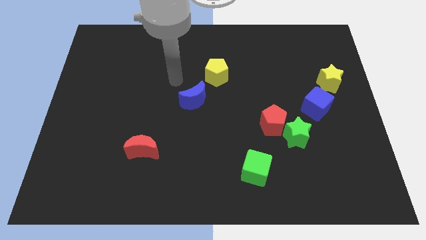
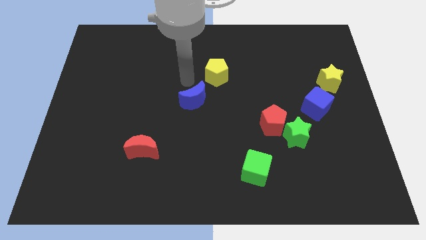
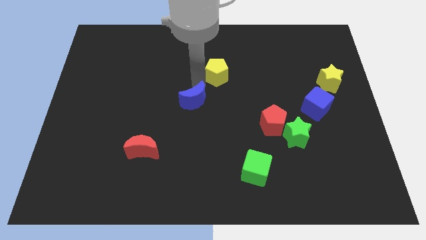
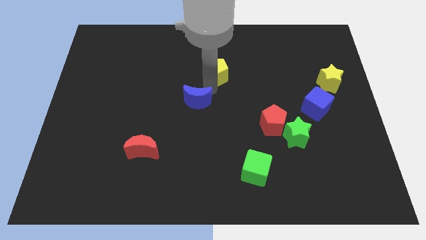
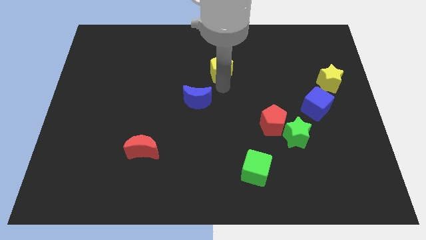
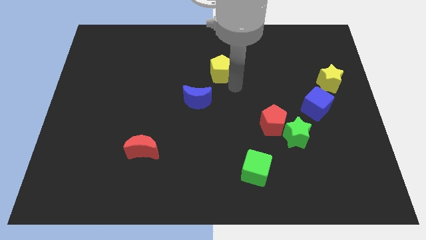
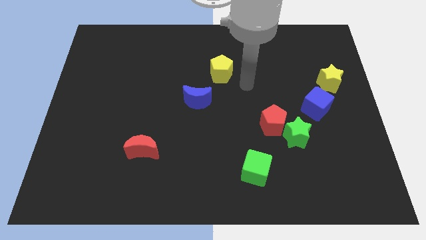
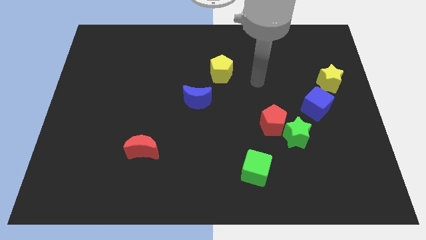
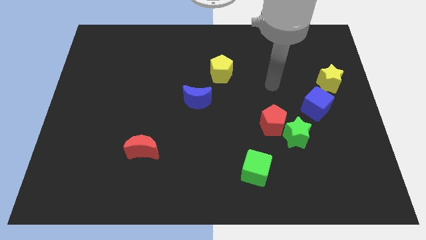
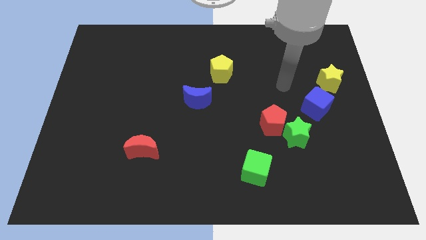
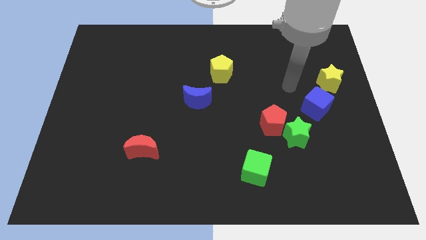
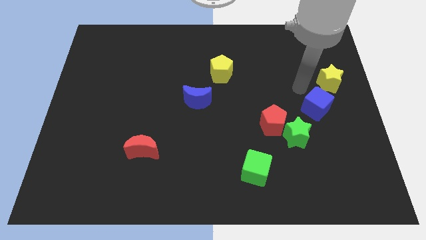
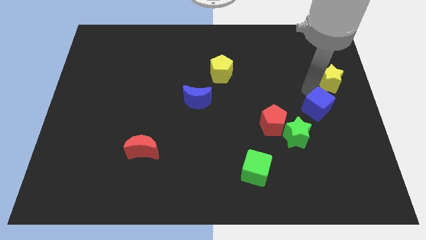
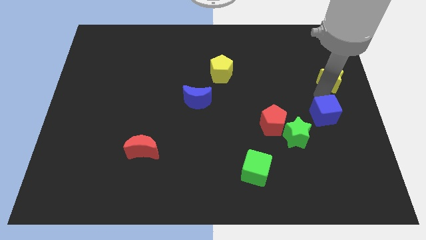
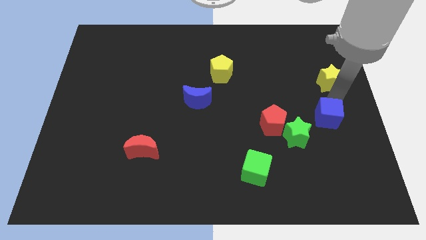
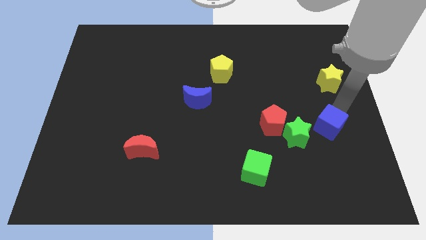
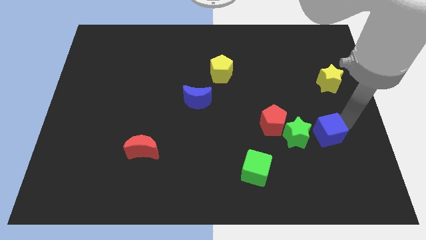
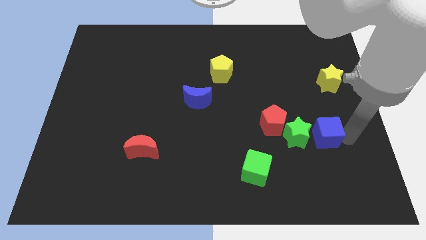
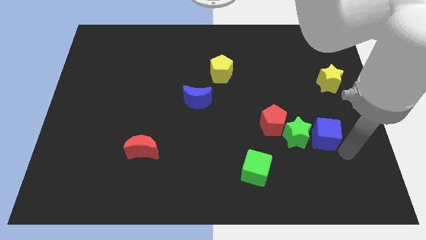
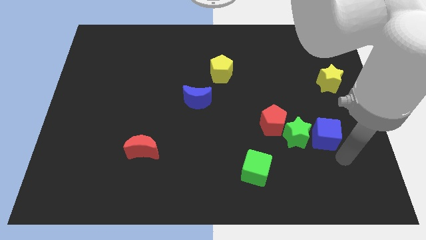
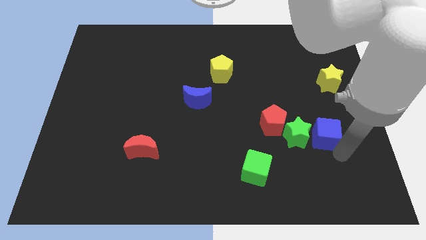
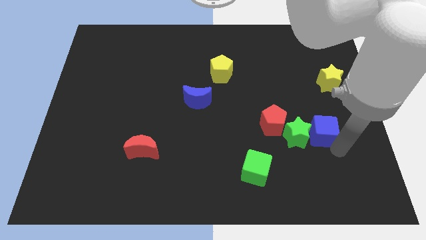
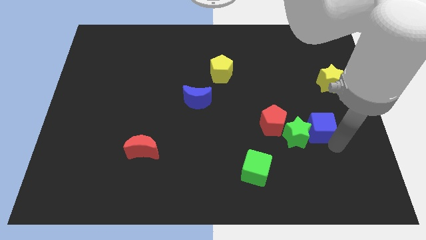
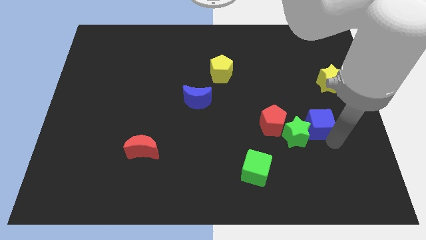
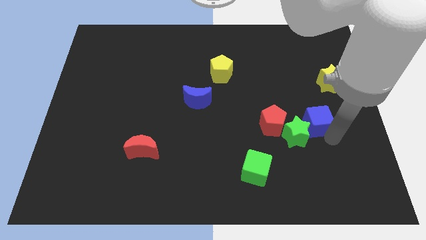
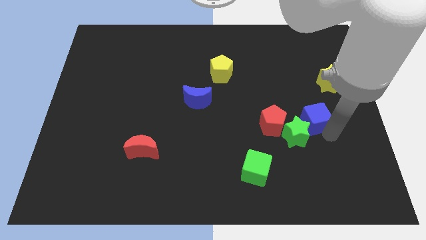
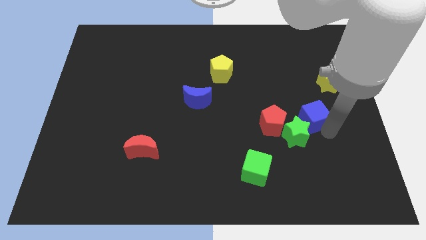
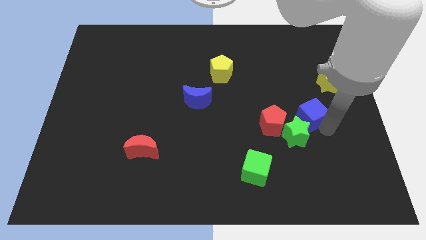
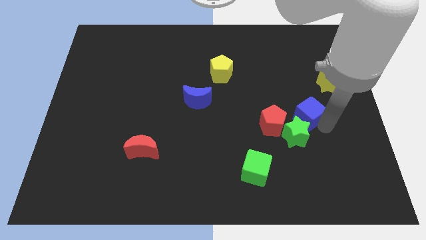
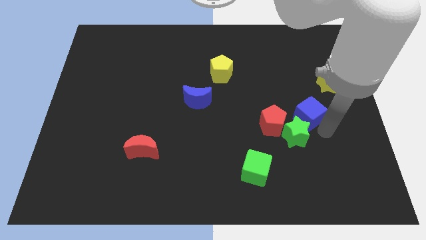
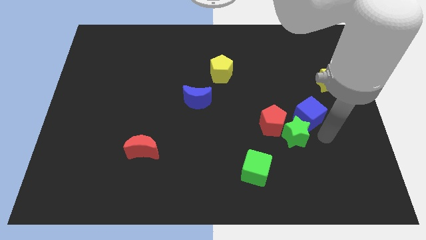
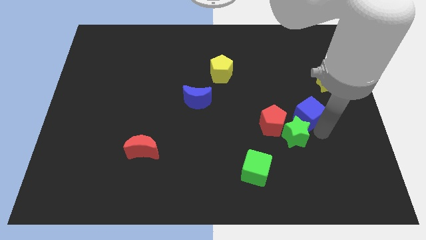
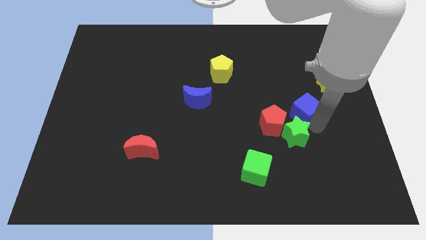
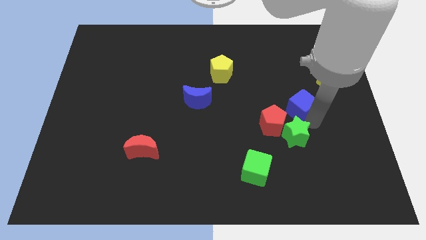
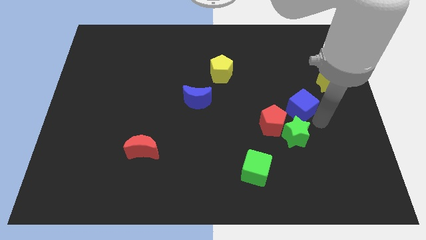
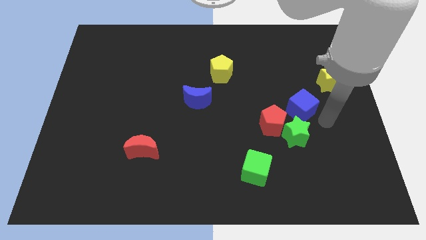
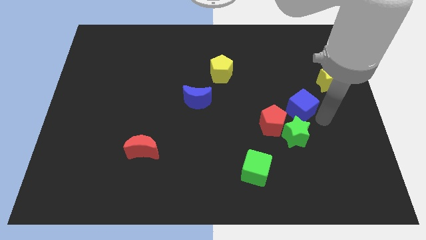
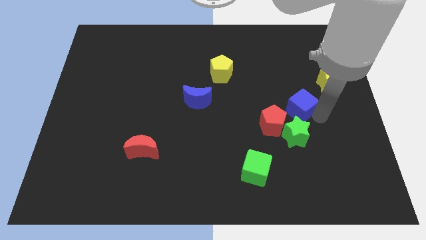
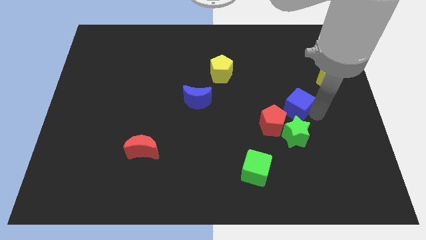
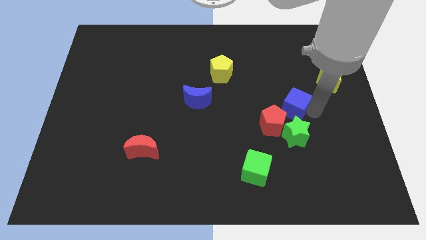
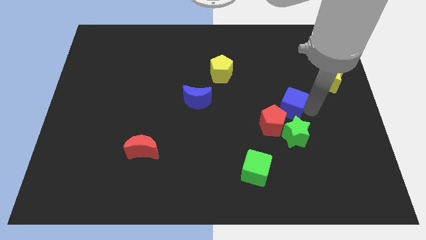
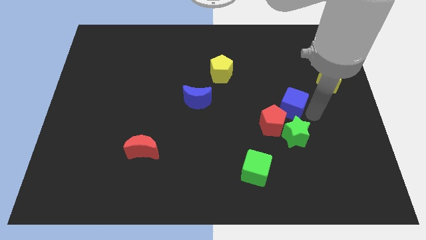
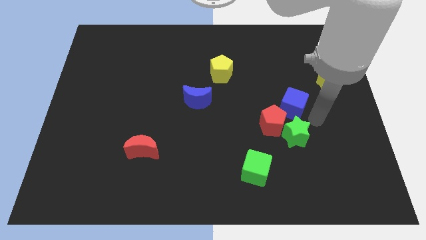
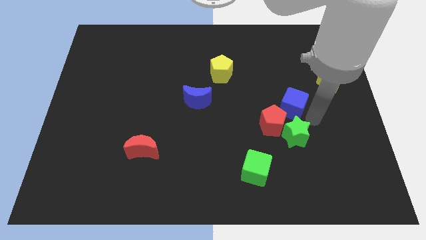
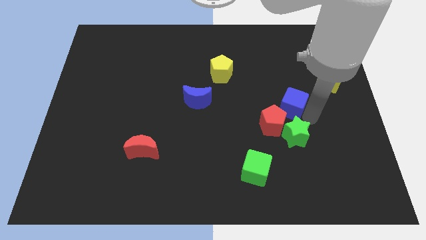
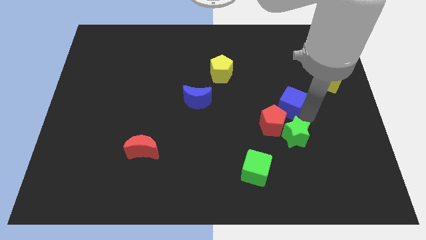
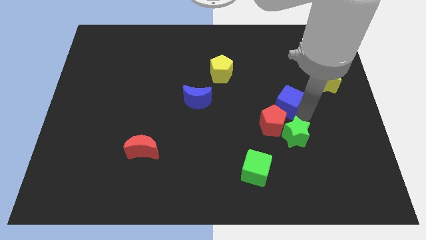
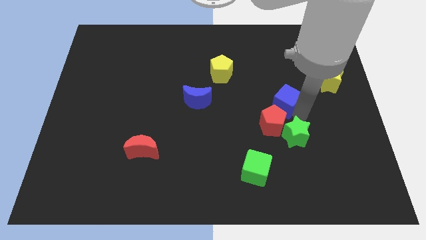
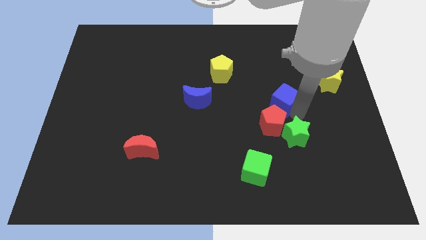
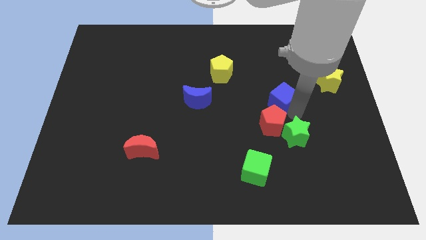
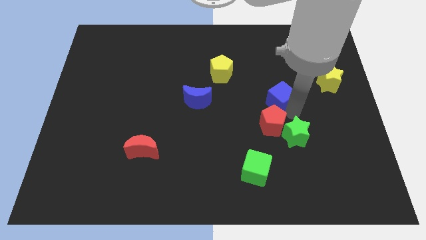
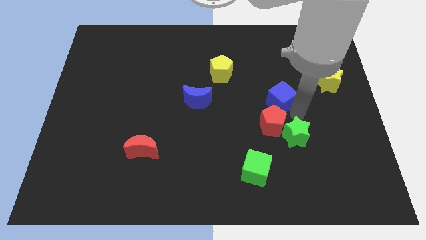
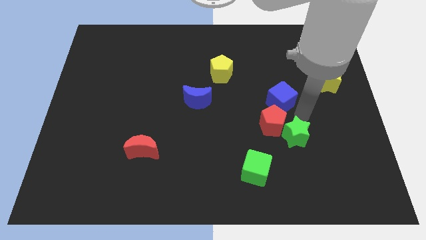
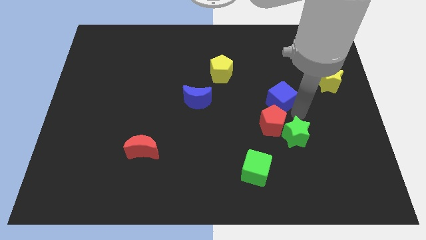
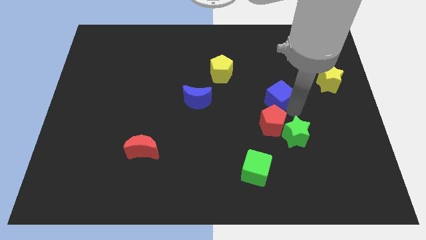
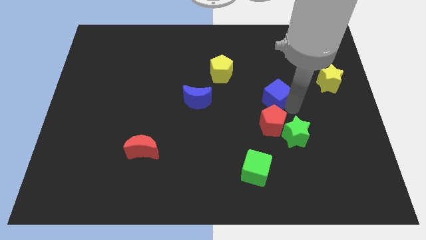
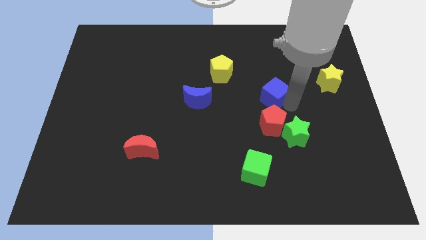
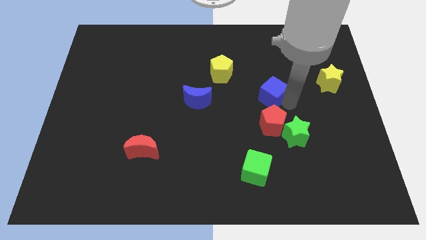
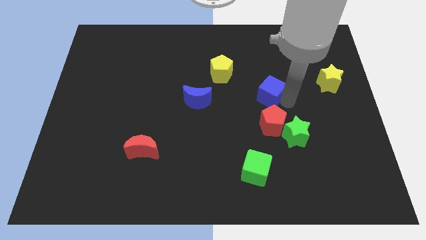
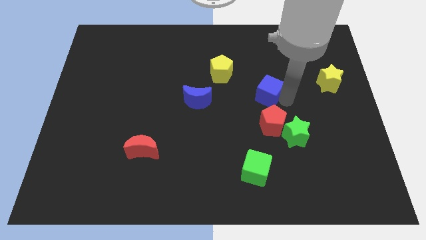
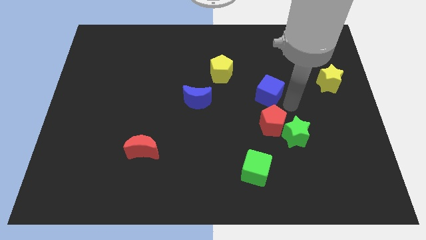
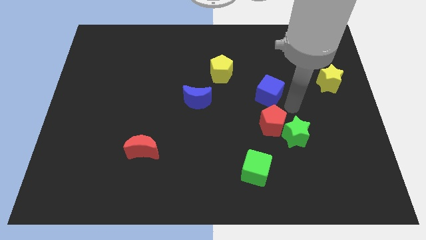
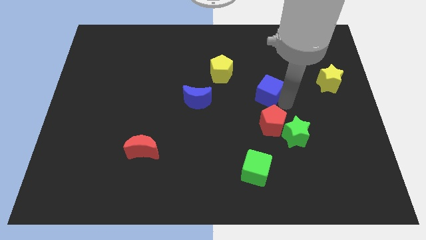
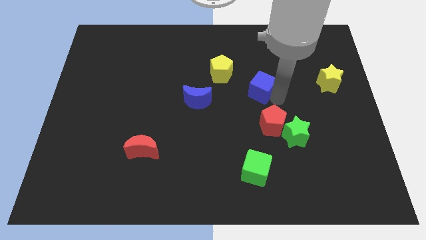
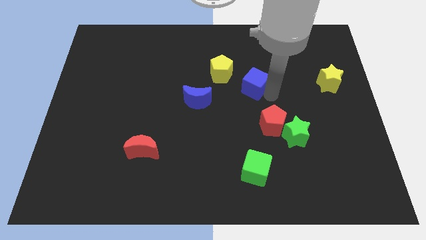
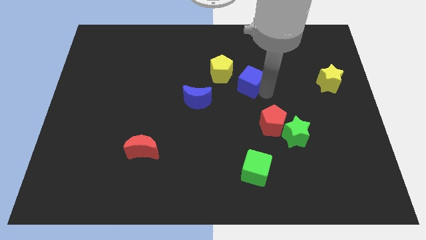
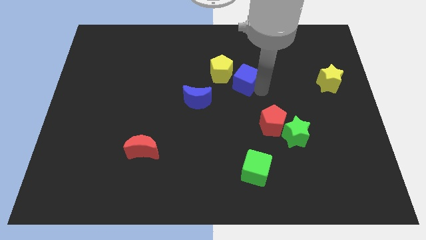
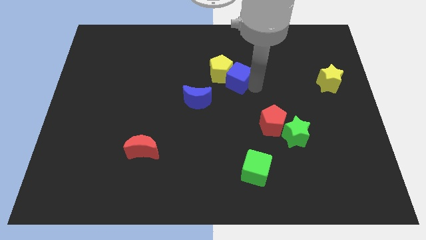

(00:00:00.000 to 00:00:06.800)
put the blue cube close to the yellow pentagon

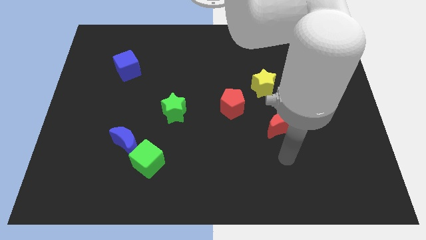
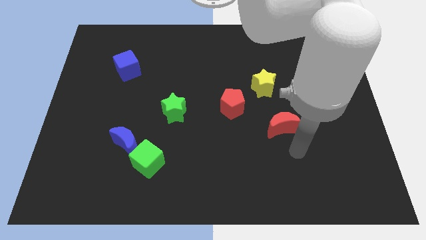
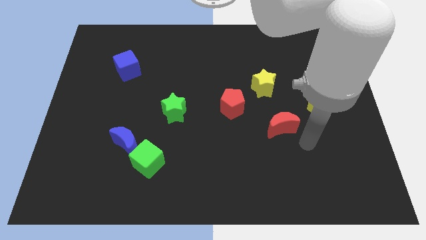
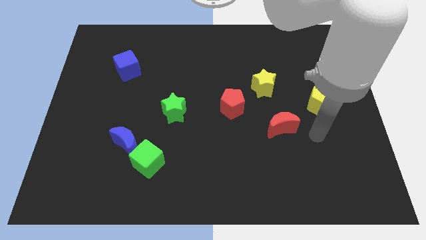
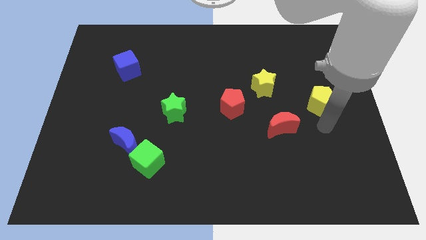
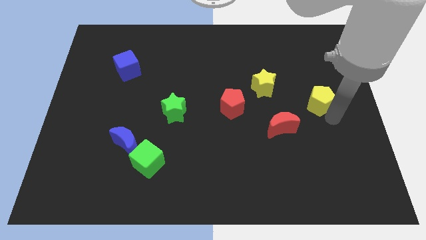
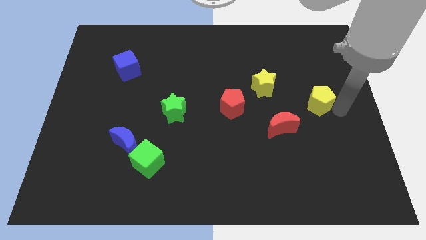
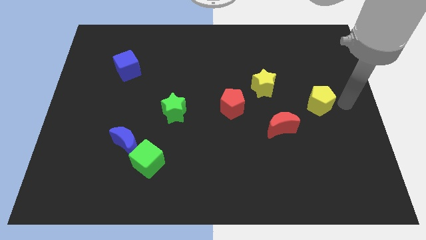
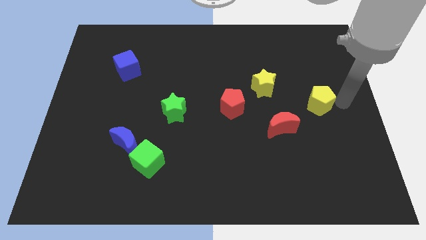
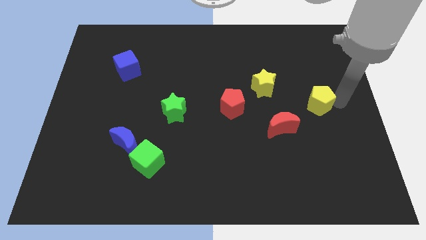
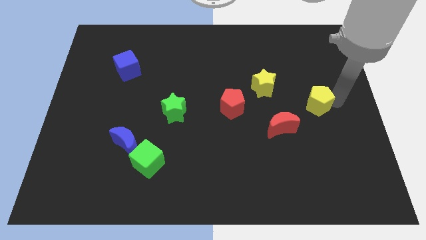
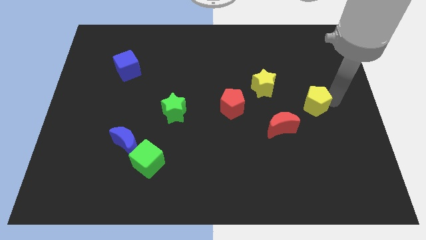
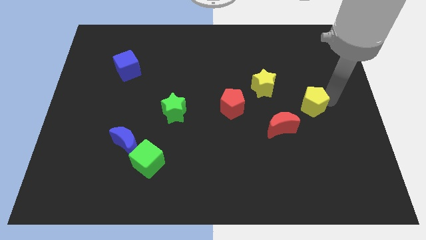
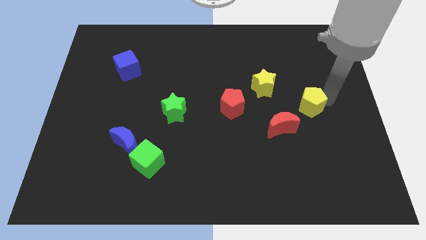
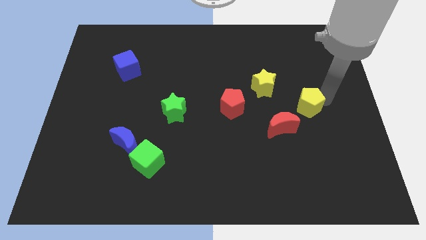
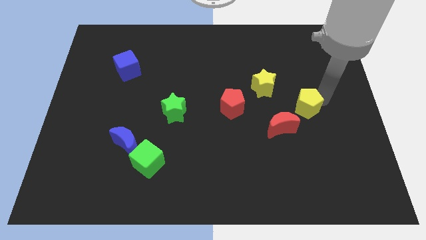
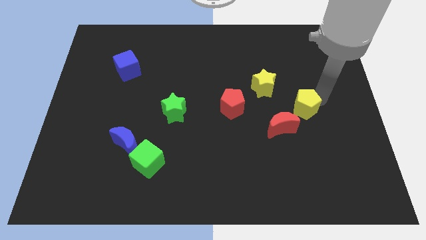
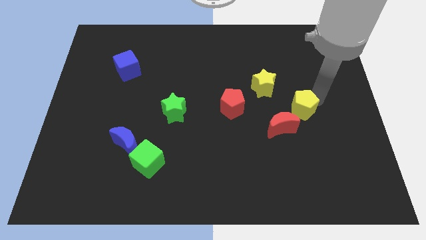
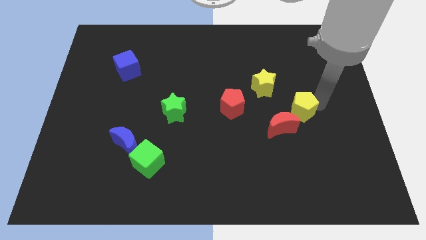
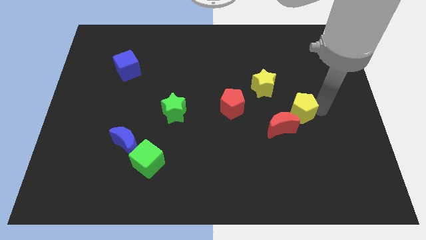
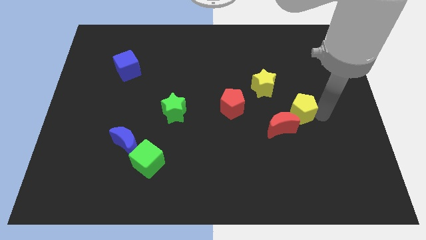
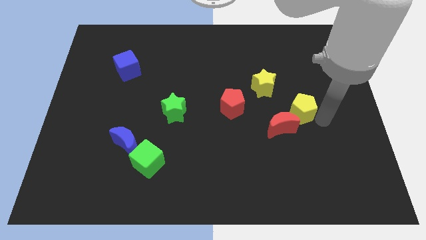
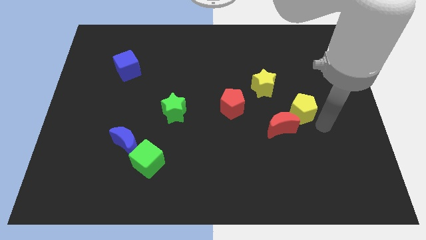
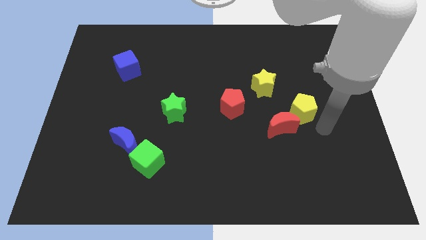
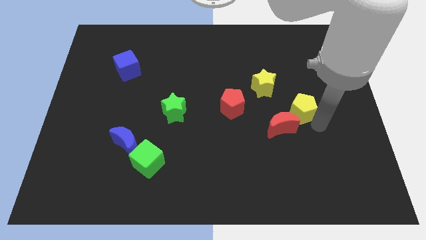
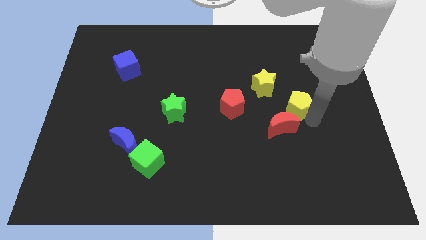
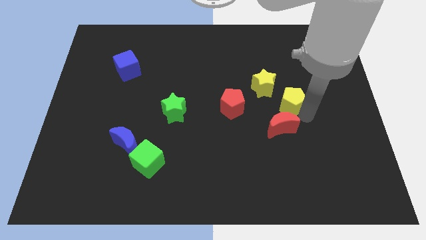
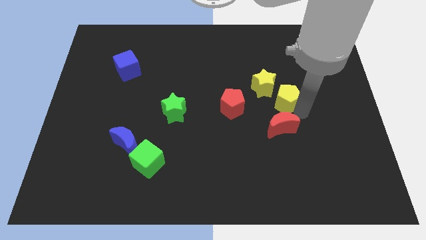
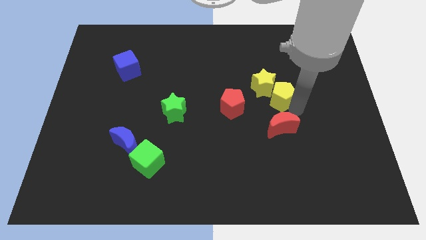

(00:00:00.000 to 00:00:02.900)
push the yellow pentagon to the yellow star
